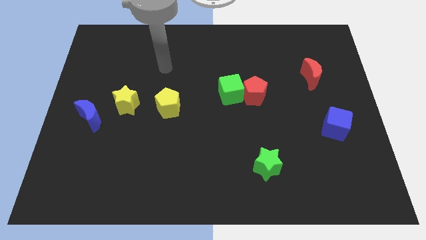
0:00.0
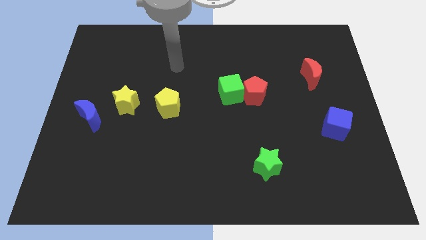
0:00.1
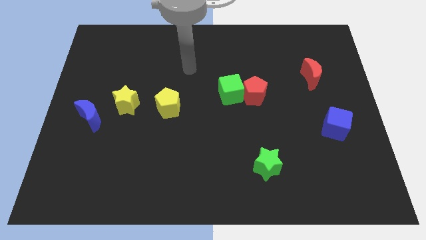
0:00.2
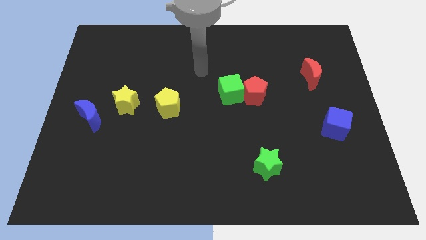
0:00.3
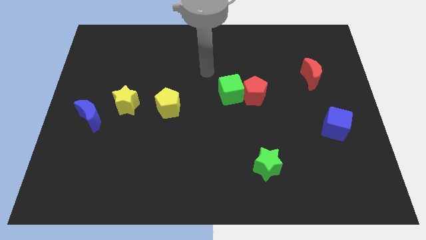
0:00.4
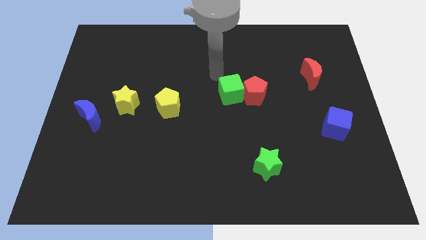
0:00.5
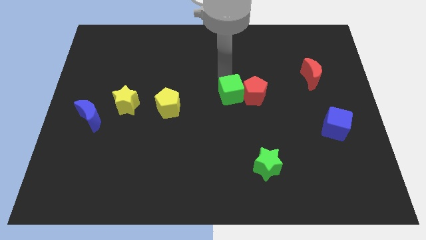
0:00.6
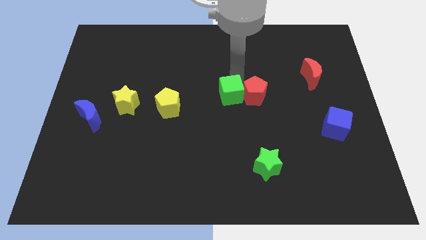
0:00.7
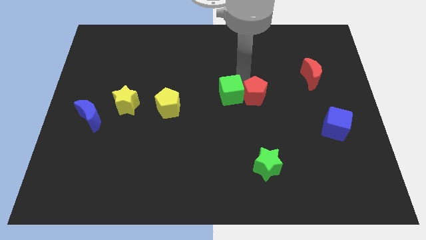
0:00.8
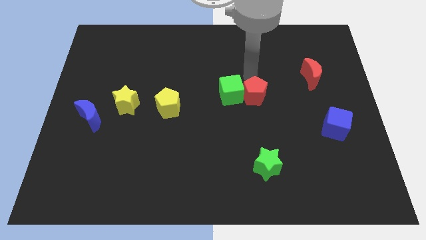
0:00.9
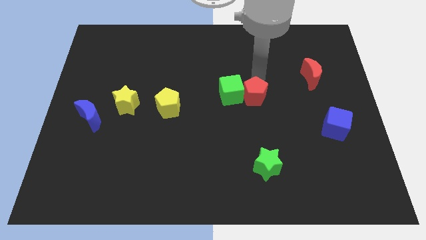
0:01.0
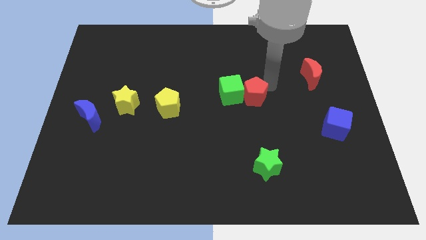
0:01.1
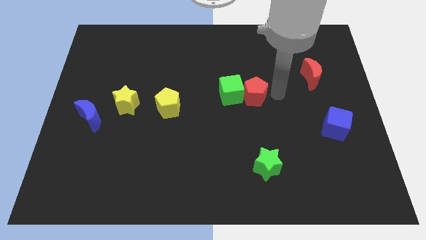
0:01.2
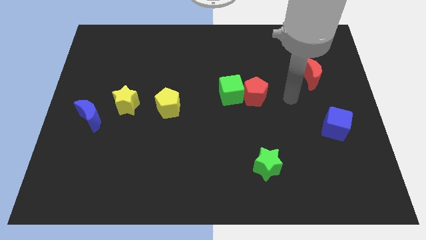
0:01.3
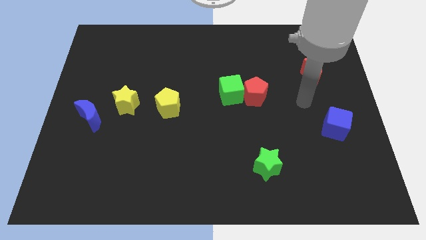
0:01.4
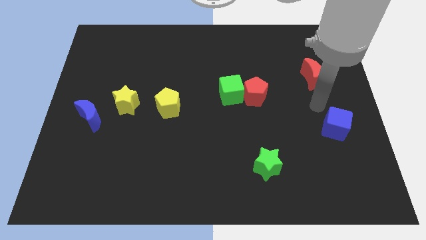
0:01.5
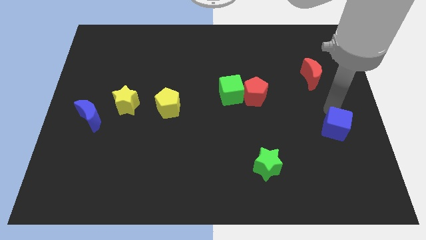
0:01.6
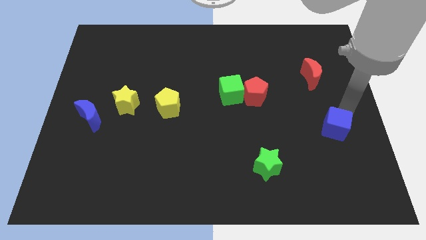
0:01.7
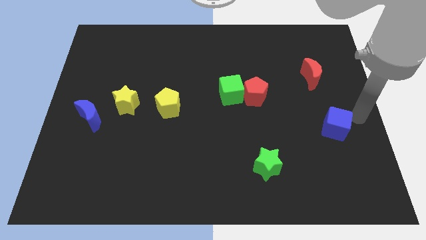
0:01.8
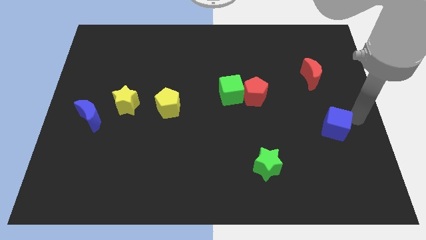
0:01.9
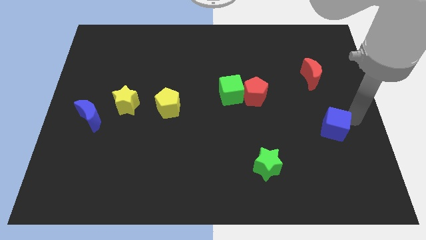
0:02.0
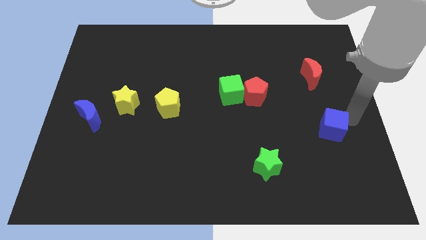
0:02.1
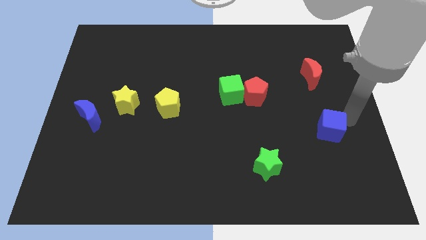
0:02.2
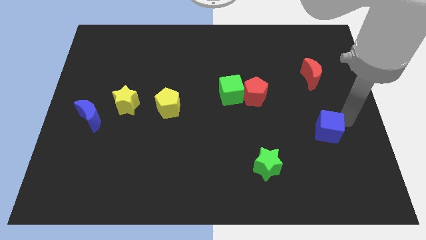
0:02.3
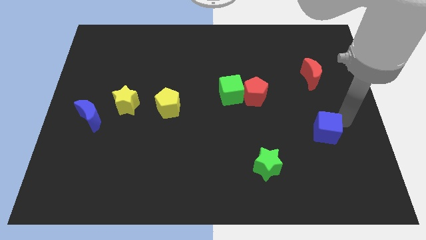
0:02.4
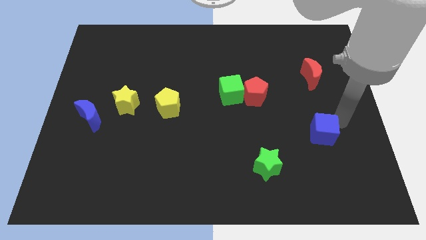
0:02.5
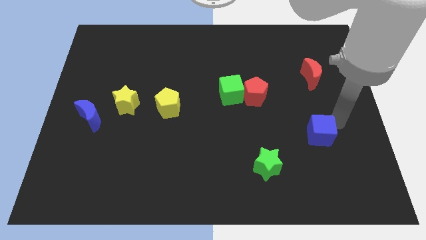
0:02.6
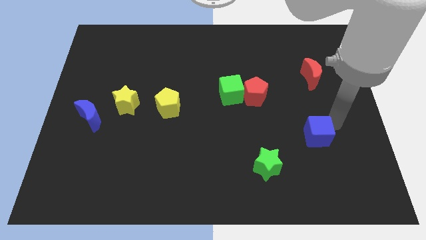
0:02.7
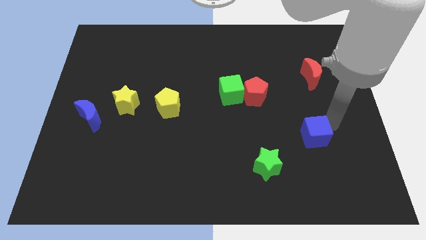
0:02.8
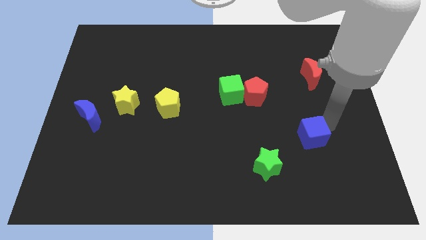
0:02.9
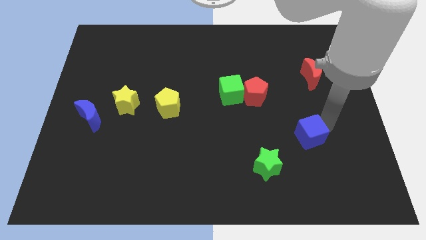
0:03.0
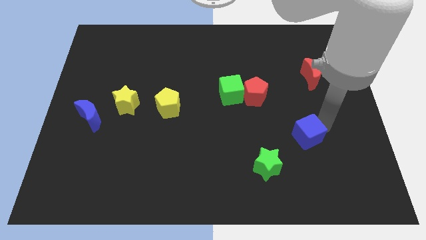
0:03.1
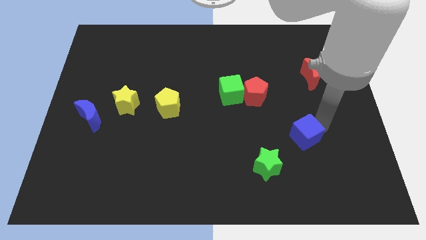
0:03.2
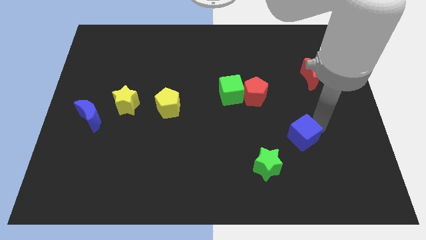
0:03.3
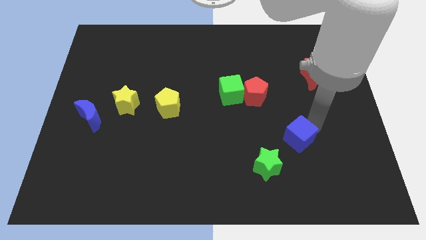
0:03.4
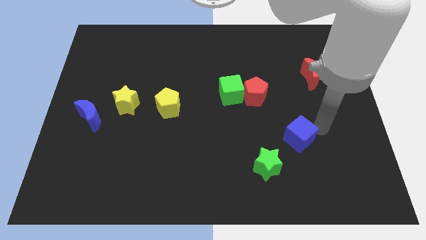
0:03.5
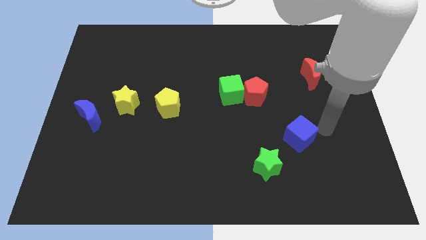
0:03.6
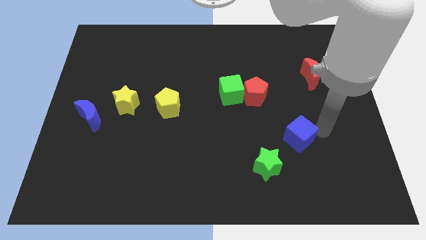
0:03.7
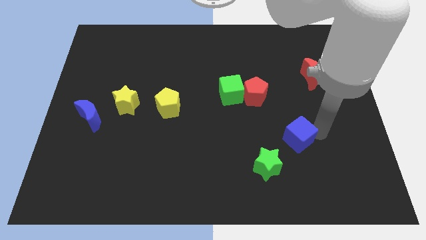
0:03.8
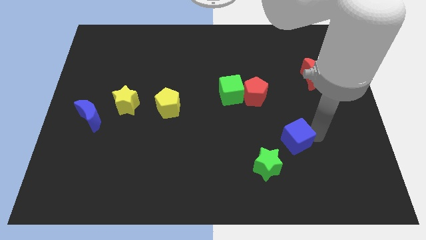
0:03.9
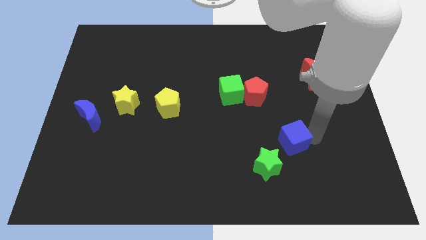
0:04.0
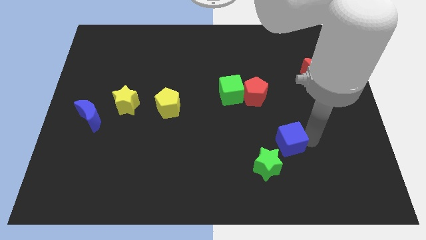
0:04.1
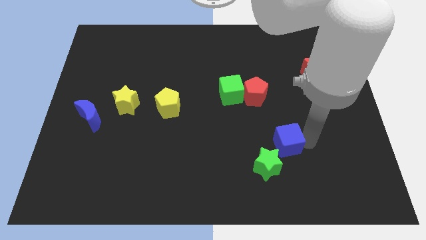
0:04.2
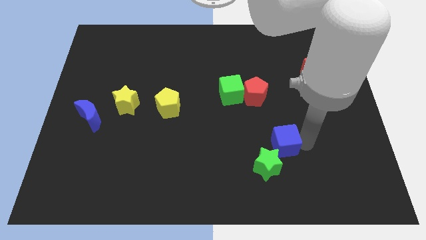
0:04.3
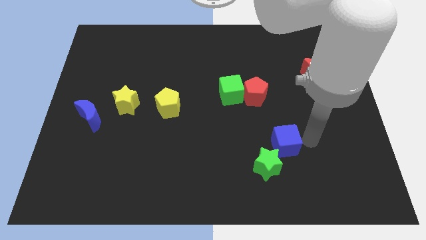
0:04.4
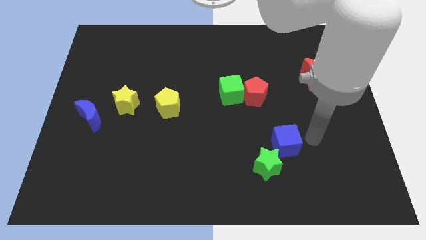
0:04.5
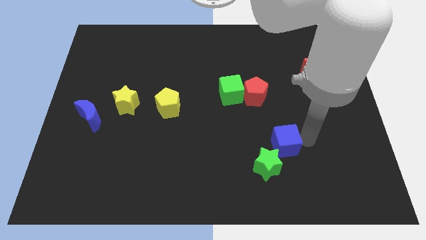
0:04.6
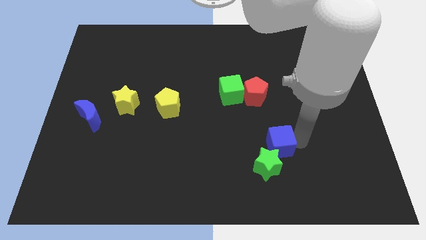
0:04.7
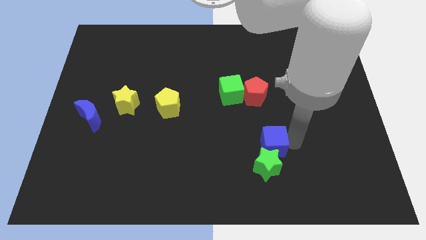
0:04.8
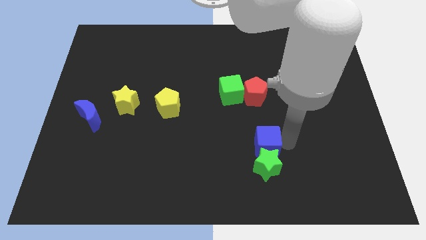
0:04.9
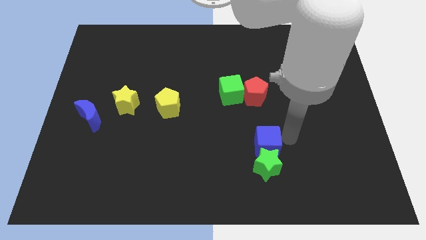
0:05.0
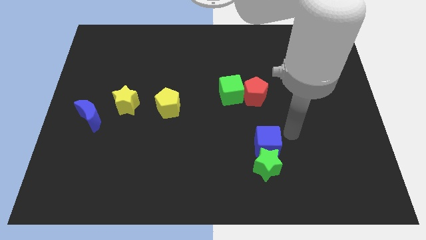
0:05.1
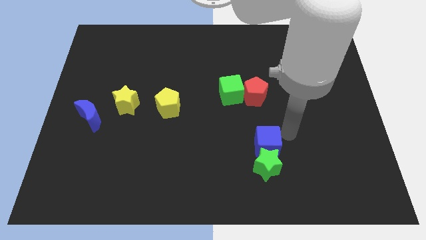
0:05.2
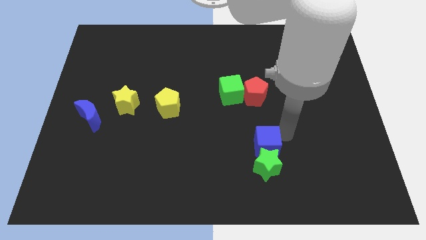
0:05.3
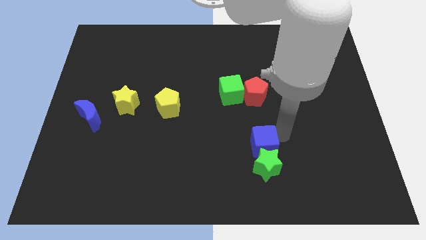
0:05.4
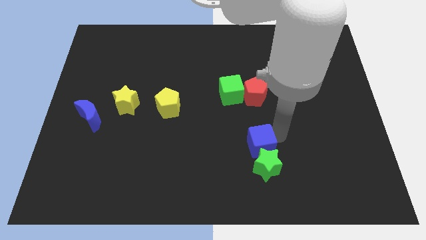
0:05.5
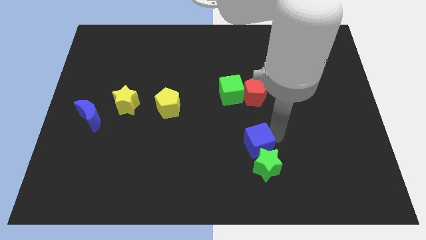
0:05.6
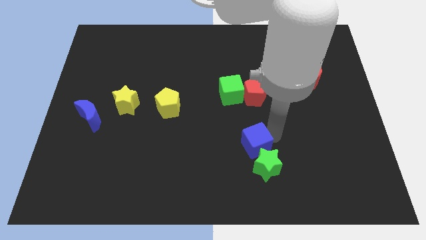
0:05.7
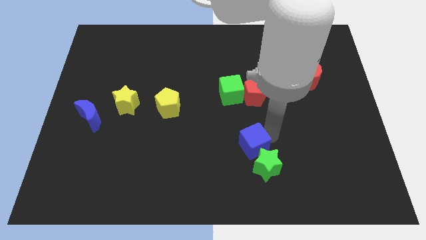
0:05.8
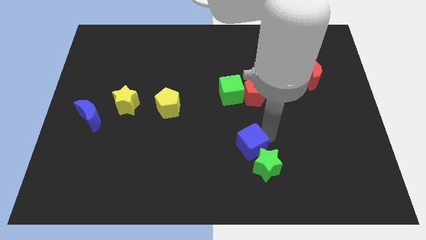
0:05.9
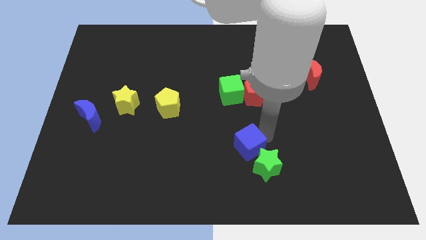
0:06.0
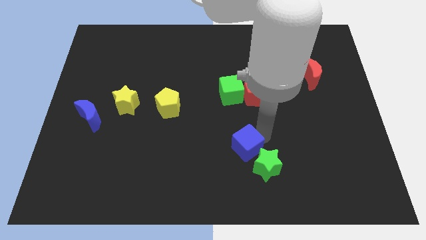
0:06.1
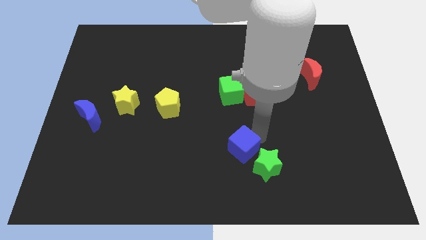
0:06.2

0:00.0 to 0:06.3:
push the blue cube left of the green star

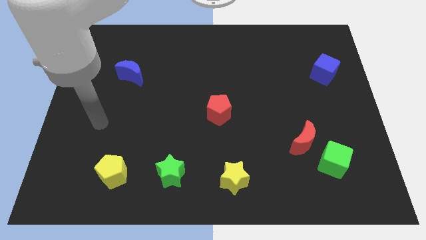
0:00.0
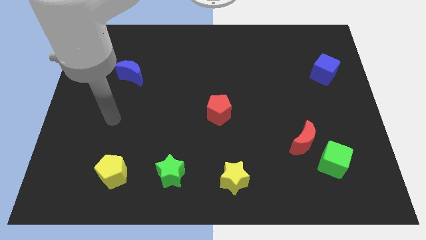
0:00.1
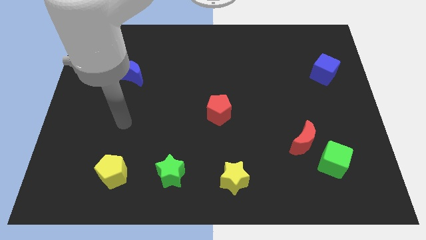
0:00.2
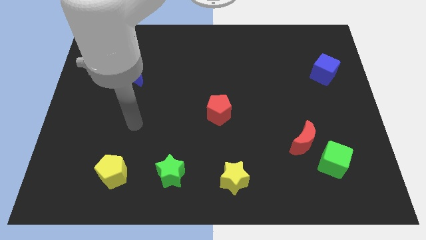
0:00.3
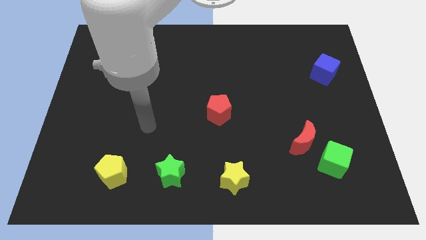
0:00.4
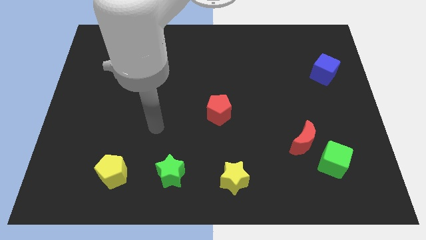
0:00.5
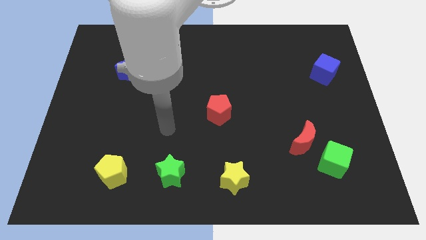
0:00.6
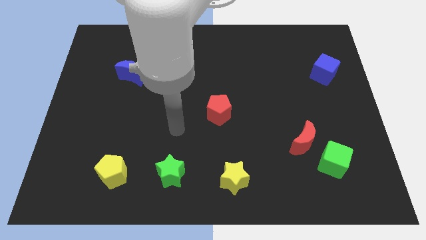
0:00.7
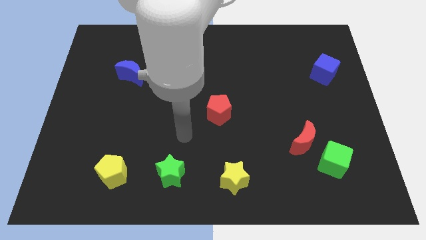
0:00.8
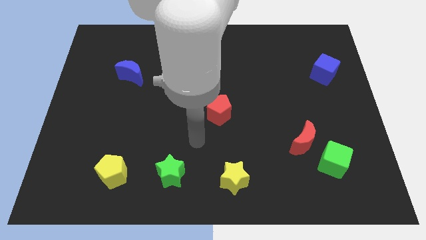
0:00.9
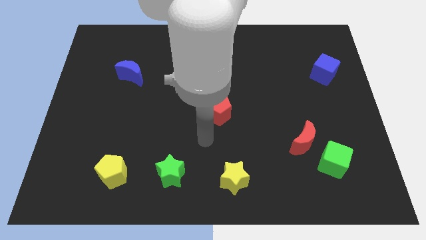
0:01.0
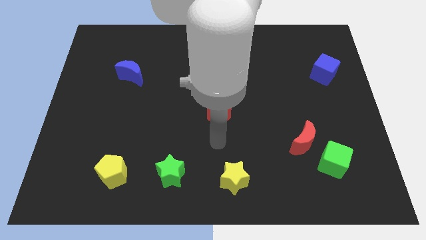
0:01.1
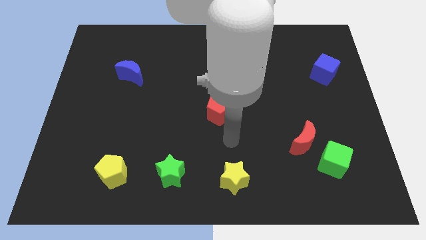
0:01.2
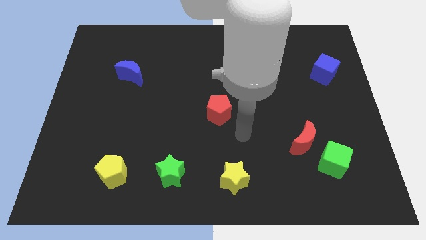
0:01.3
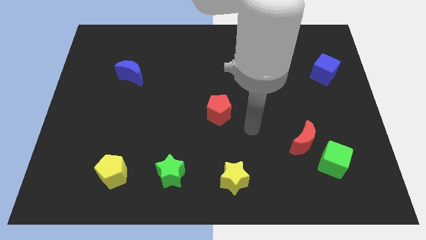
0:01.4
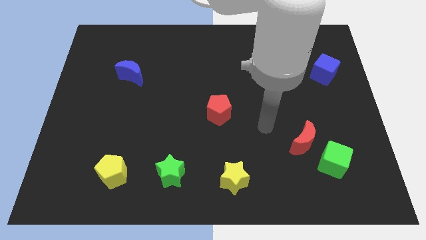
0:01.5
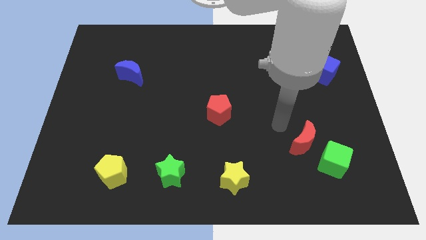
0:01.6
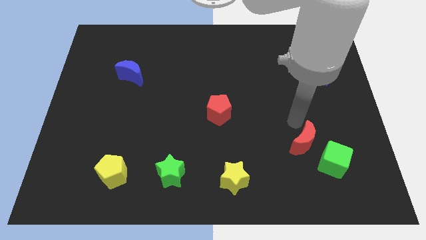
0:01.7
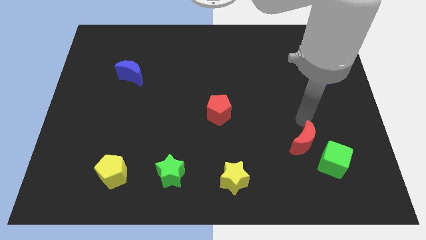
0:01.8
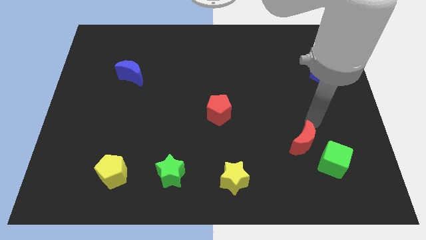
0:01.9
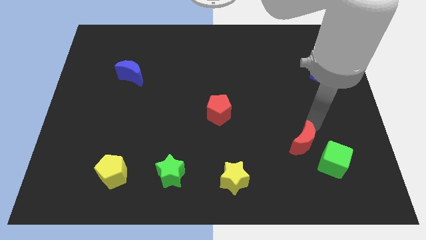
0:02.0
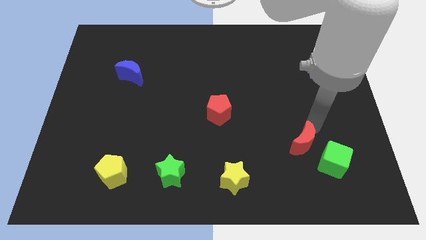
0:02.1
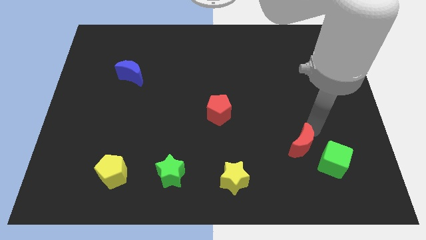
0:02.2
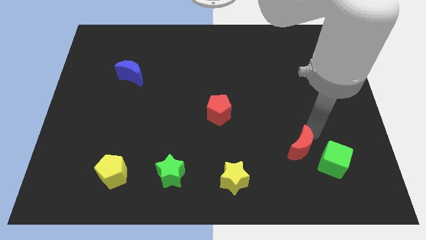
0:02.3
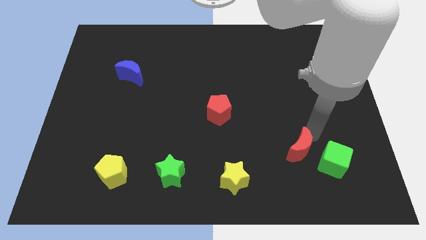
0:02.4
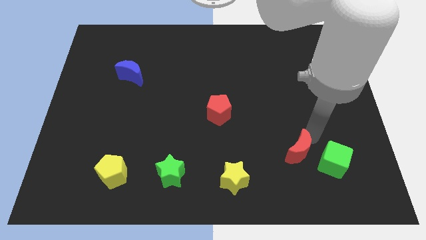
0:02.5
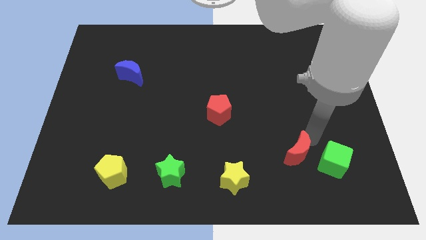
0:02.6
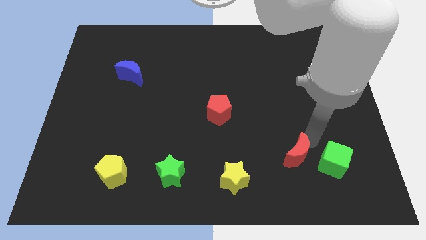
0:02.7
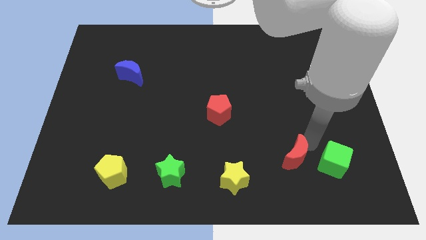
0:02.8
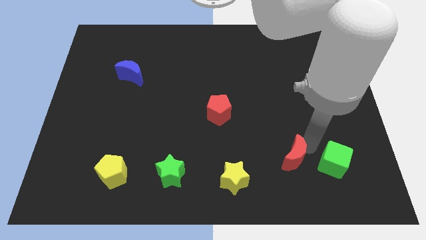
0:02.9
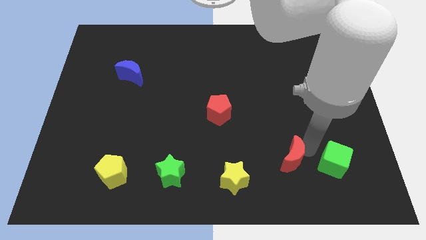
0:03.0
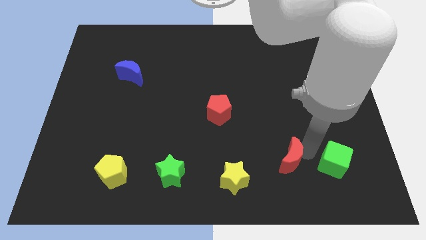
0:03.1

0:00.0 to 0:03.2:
slide the red moon to the right side of the yellow star
